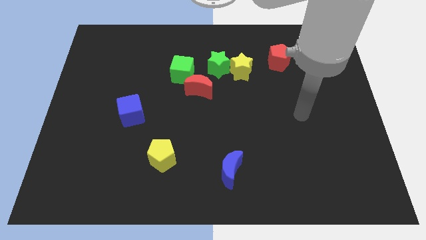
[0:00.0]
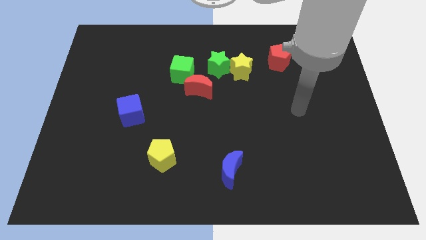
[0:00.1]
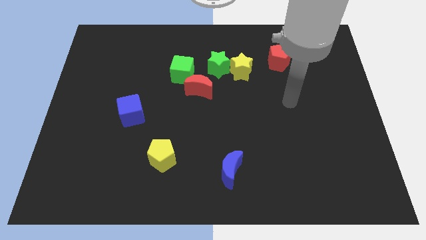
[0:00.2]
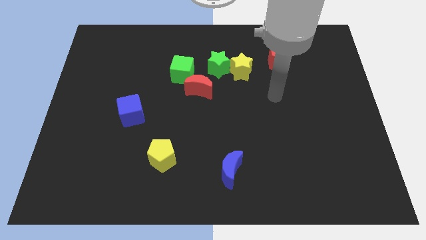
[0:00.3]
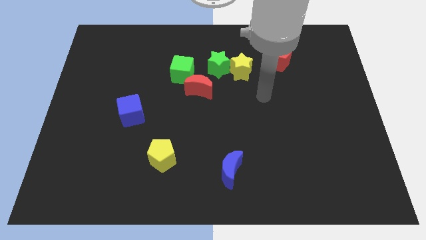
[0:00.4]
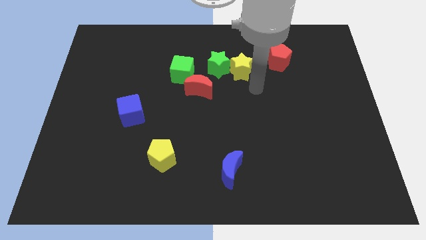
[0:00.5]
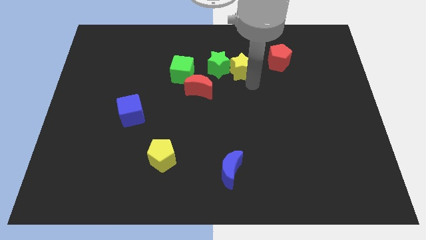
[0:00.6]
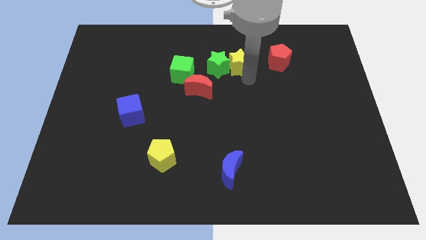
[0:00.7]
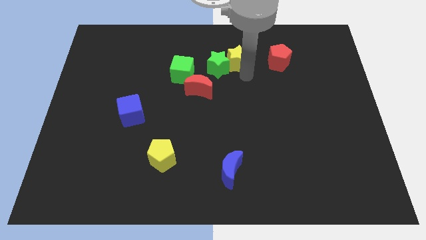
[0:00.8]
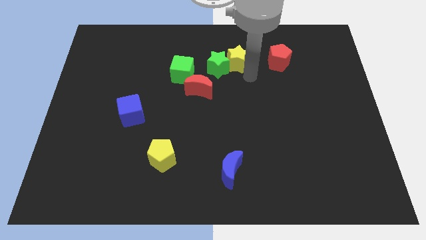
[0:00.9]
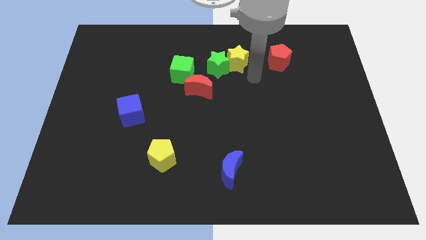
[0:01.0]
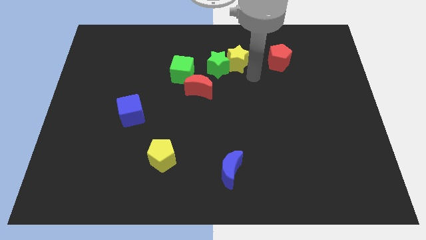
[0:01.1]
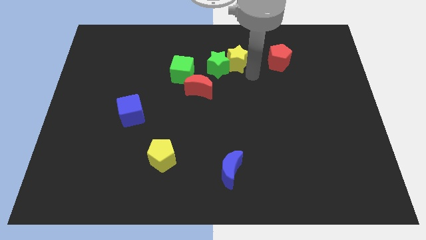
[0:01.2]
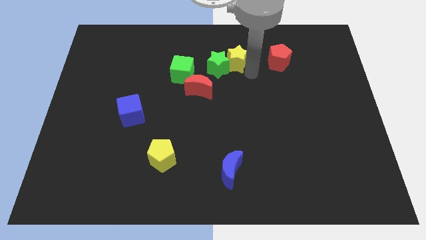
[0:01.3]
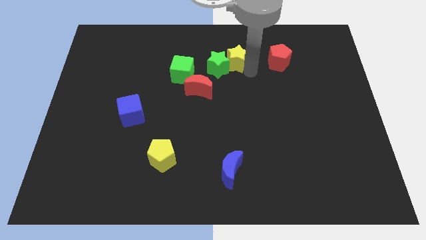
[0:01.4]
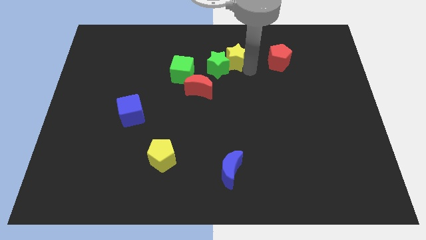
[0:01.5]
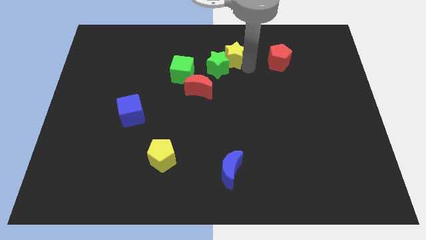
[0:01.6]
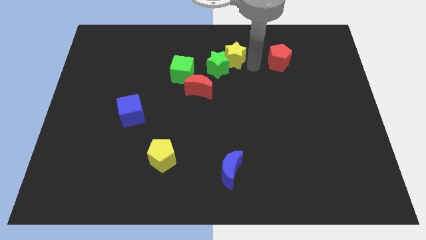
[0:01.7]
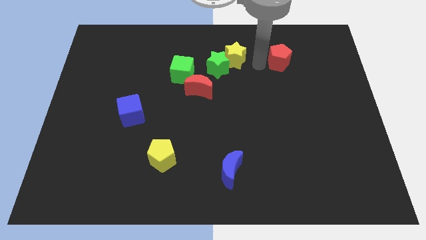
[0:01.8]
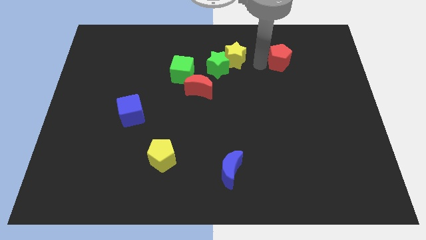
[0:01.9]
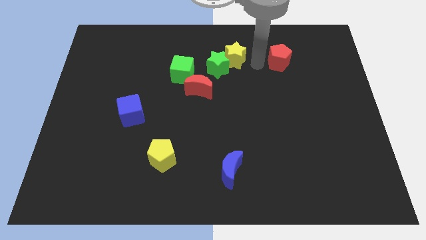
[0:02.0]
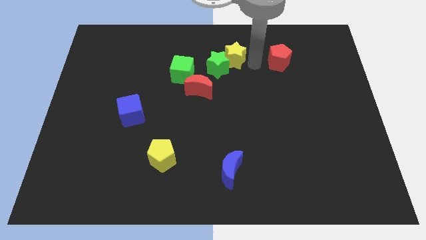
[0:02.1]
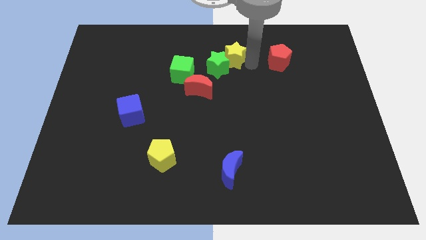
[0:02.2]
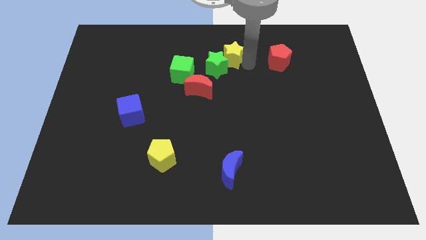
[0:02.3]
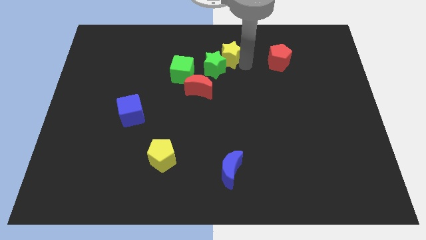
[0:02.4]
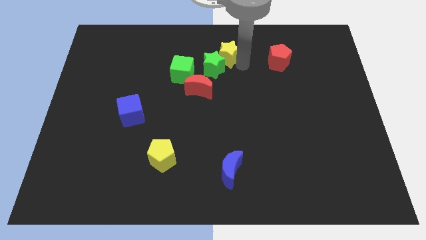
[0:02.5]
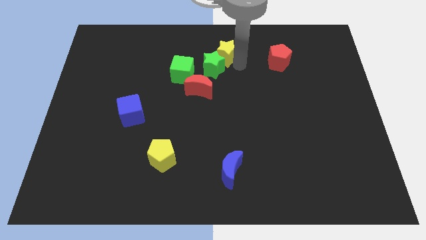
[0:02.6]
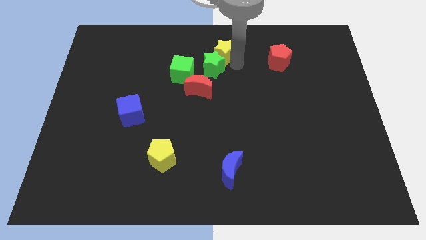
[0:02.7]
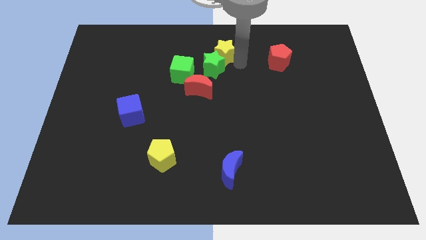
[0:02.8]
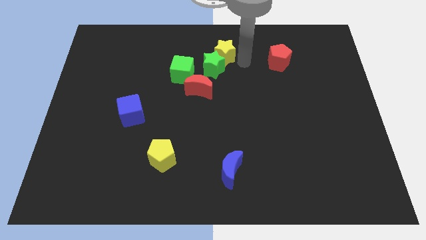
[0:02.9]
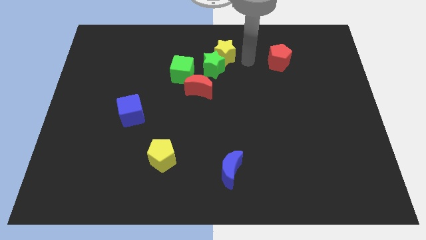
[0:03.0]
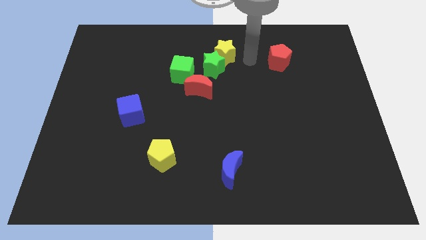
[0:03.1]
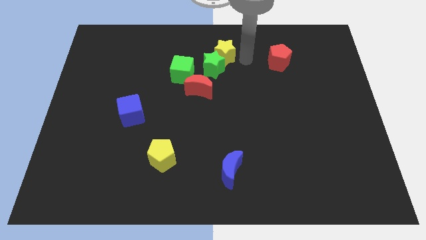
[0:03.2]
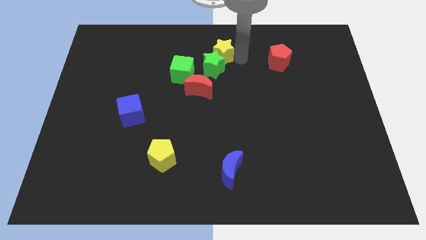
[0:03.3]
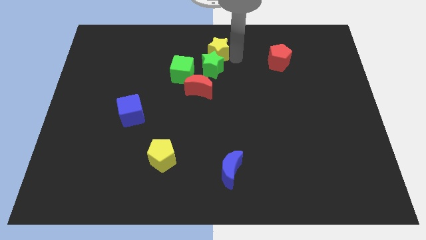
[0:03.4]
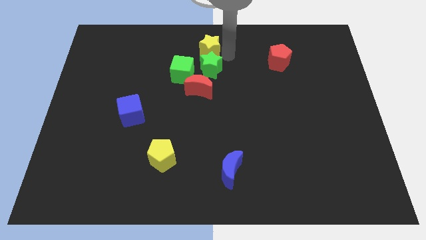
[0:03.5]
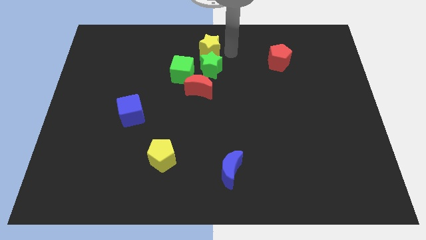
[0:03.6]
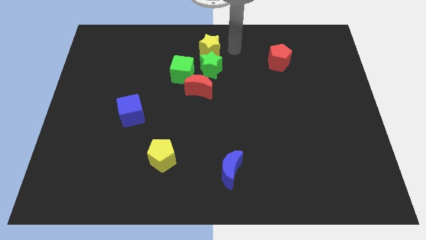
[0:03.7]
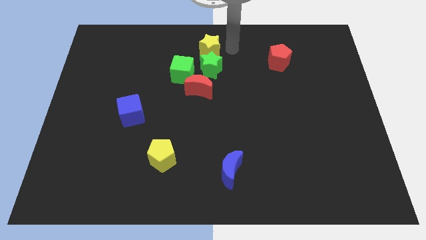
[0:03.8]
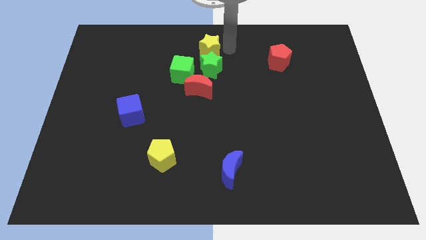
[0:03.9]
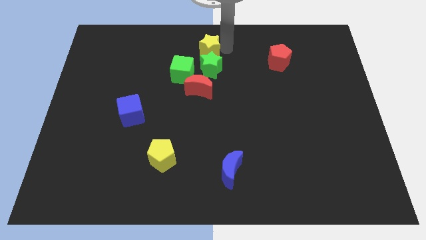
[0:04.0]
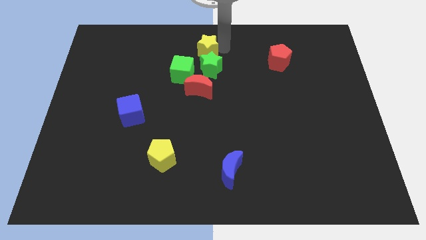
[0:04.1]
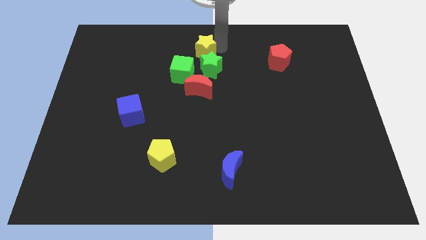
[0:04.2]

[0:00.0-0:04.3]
slide the yellow star to the left slightly

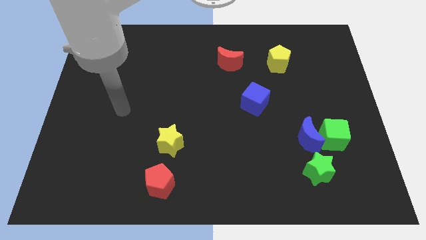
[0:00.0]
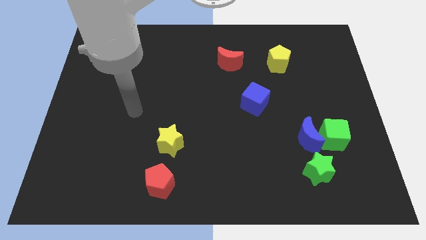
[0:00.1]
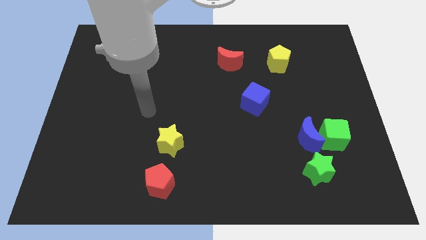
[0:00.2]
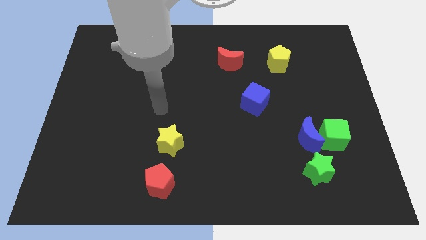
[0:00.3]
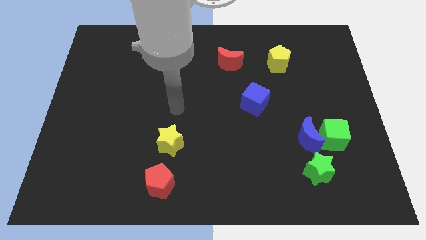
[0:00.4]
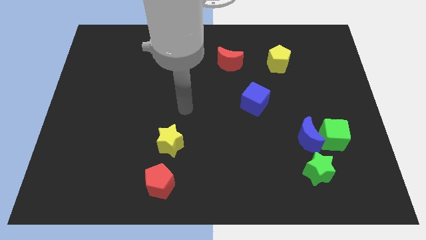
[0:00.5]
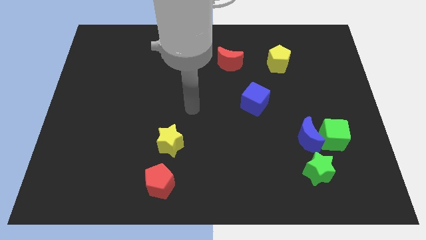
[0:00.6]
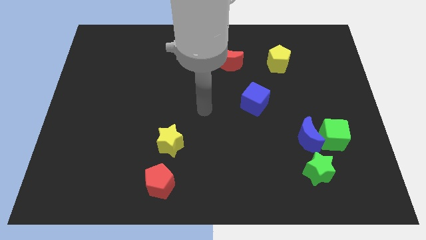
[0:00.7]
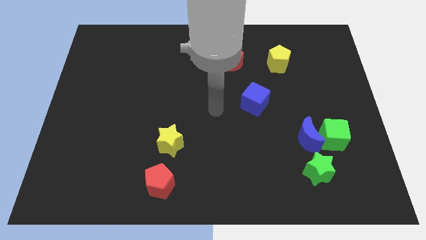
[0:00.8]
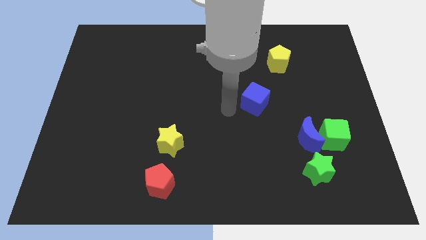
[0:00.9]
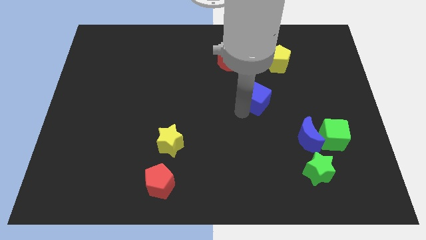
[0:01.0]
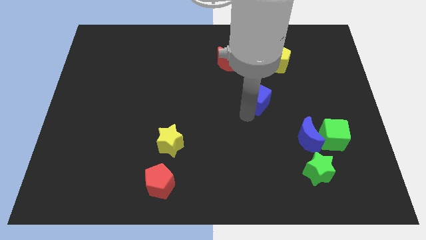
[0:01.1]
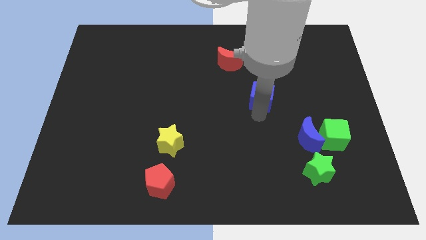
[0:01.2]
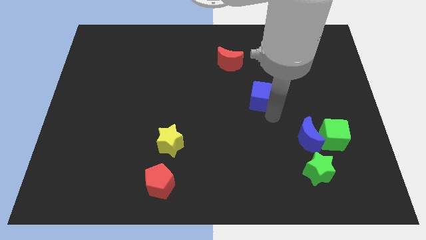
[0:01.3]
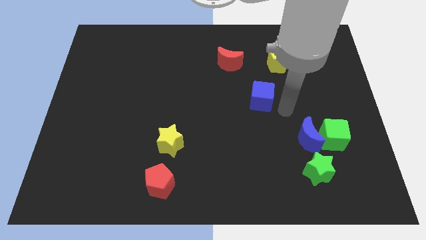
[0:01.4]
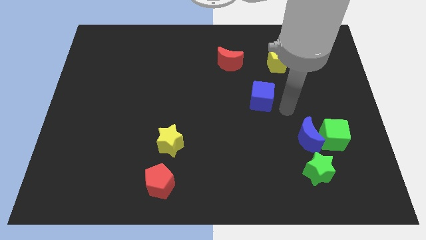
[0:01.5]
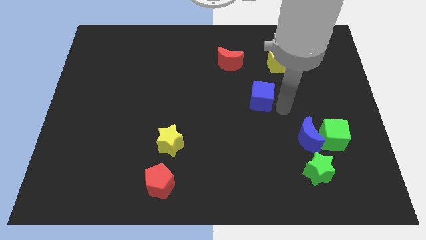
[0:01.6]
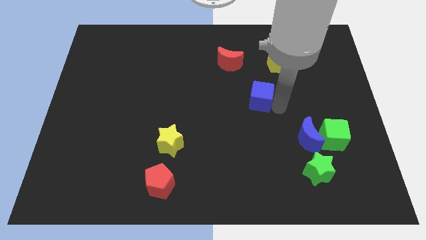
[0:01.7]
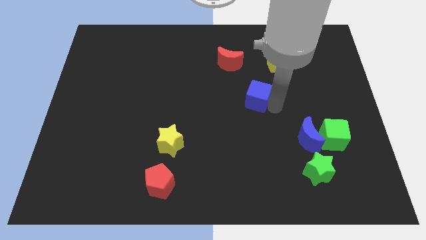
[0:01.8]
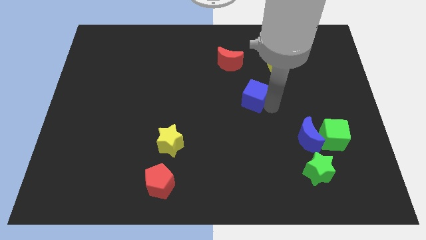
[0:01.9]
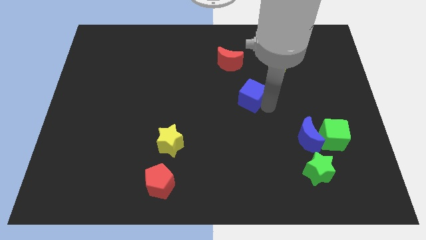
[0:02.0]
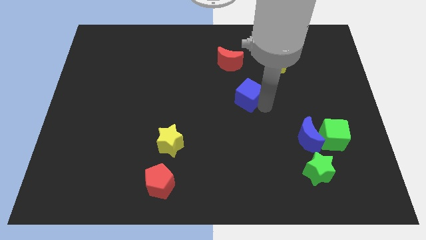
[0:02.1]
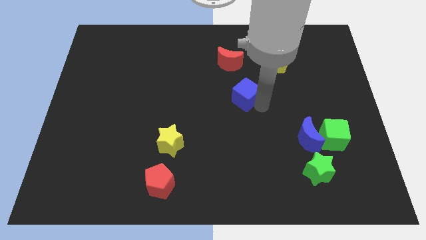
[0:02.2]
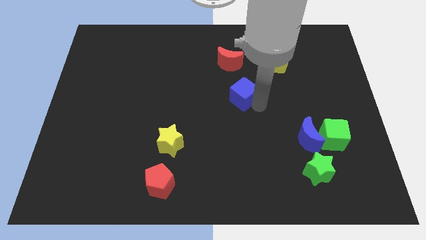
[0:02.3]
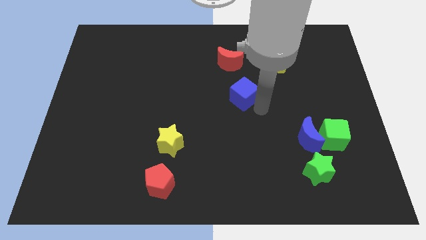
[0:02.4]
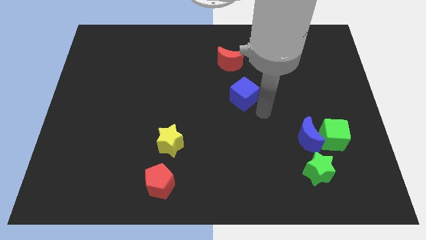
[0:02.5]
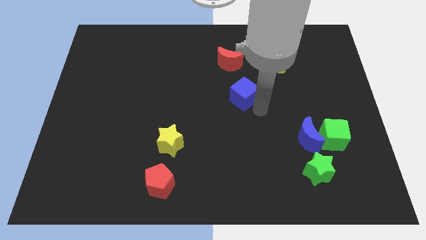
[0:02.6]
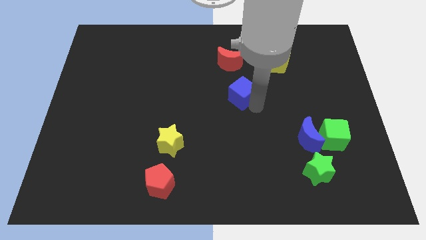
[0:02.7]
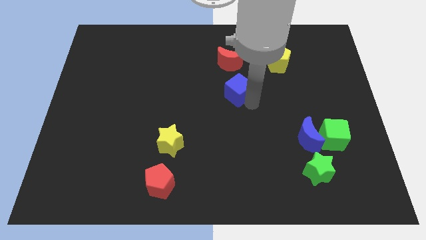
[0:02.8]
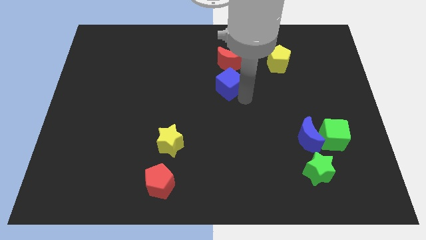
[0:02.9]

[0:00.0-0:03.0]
push the blue cube slightly diagonally upwards and left

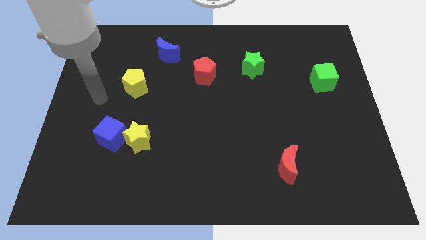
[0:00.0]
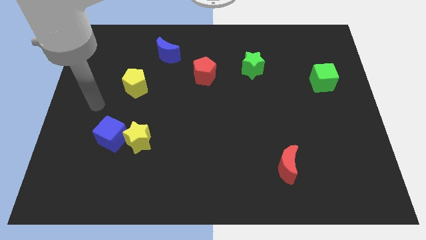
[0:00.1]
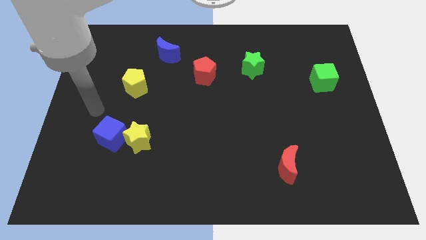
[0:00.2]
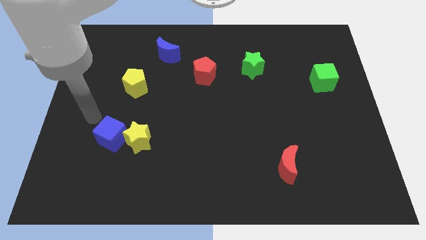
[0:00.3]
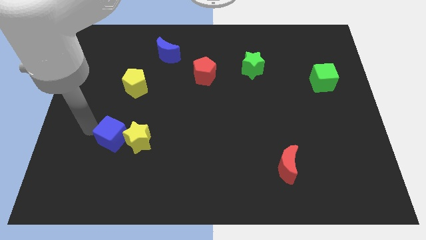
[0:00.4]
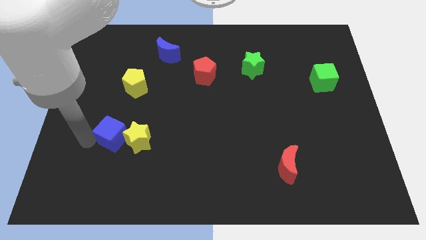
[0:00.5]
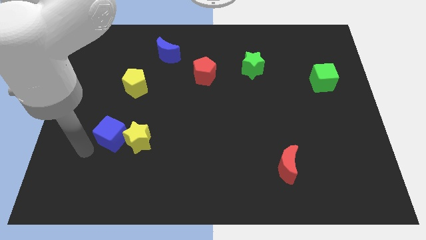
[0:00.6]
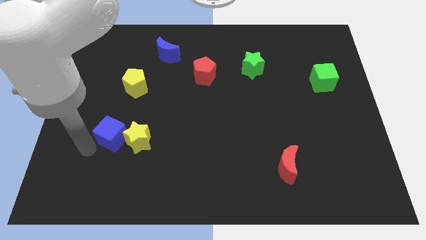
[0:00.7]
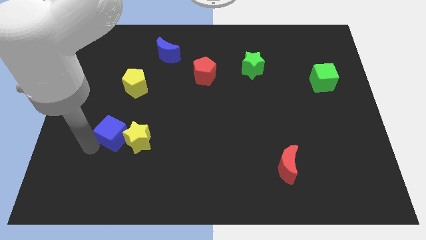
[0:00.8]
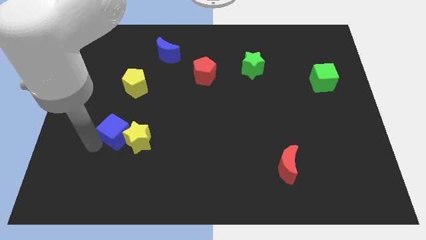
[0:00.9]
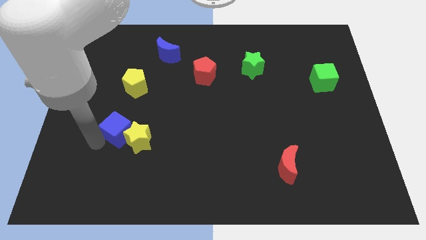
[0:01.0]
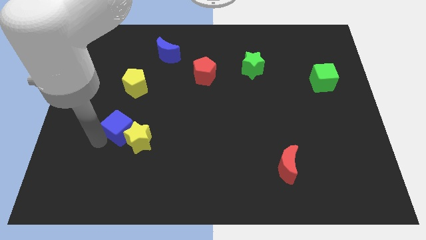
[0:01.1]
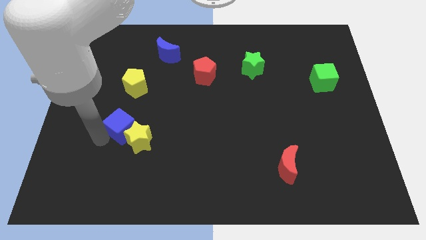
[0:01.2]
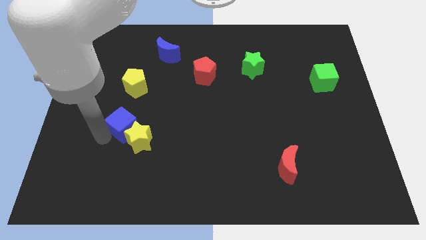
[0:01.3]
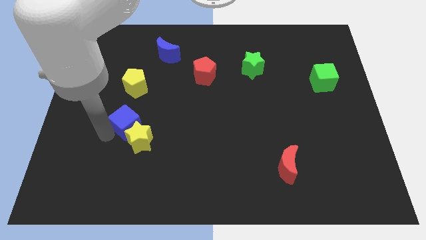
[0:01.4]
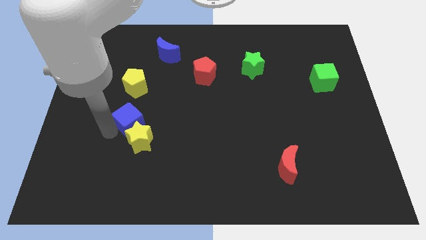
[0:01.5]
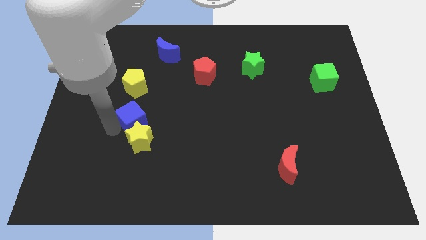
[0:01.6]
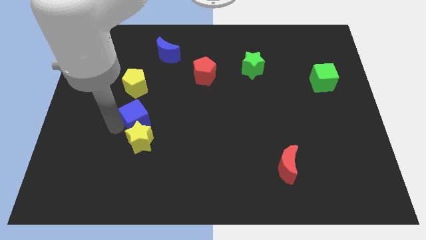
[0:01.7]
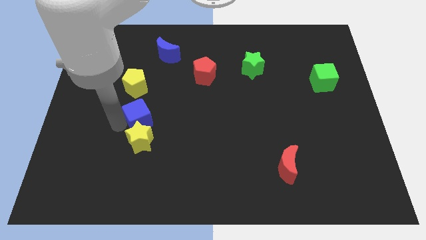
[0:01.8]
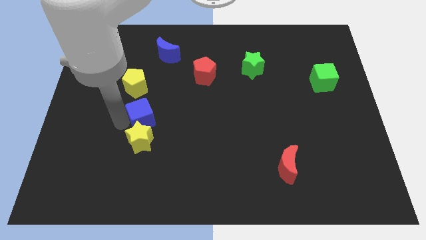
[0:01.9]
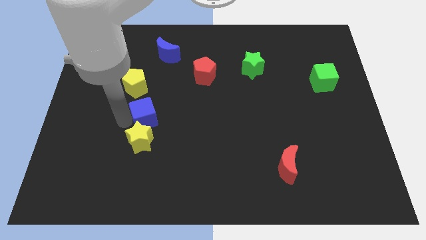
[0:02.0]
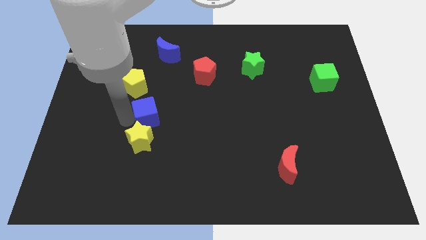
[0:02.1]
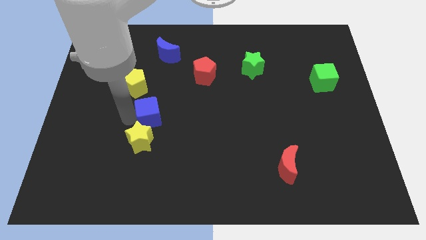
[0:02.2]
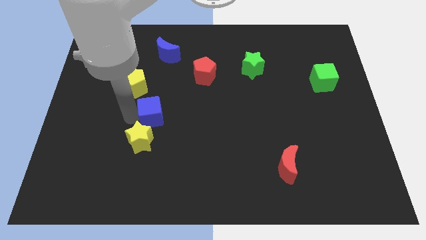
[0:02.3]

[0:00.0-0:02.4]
push the blue cube to the right somewhat
